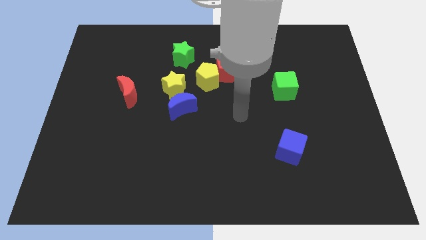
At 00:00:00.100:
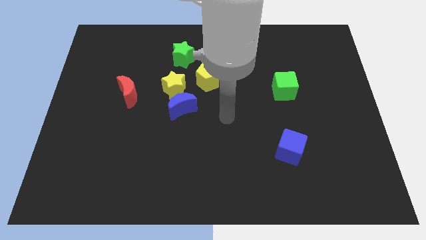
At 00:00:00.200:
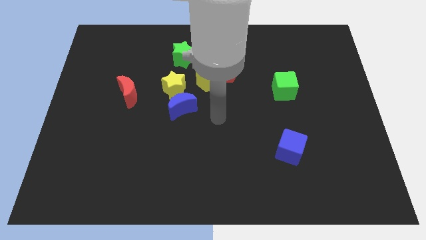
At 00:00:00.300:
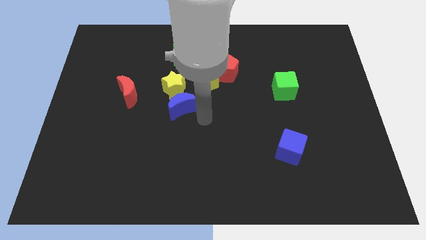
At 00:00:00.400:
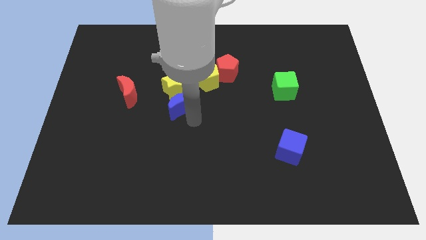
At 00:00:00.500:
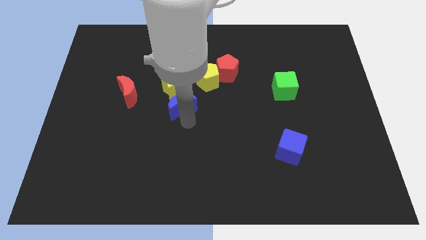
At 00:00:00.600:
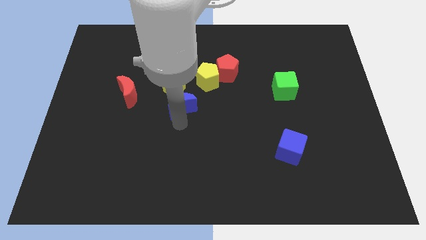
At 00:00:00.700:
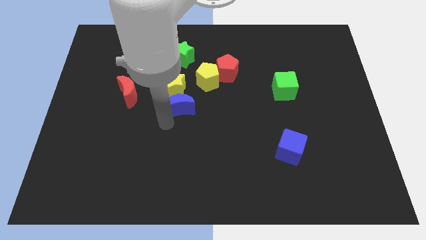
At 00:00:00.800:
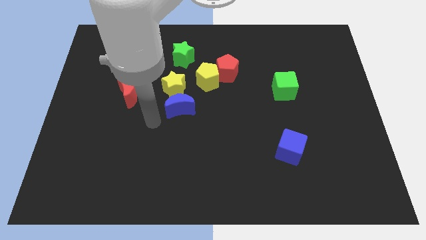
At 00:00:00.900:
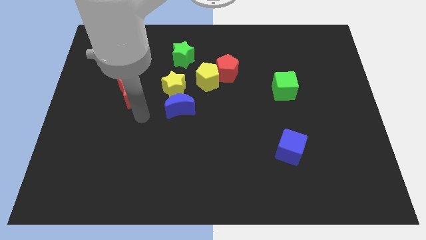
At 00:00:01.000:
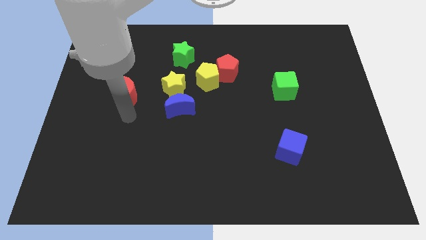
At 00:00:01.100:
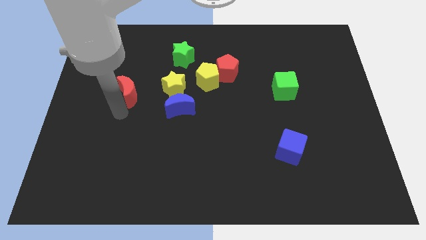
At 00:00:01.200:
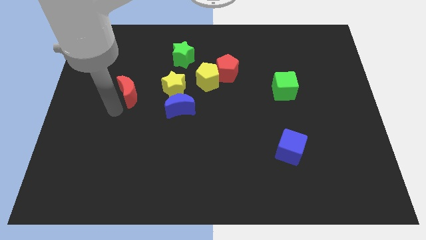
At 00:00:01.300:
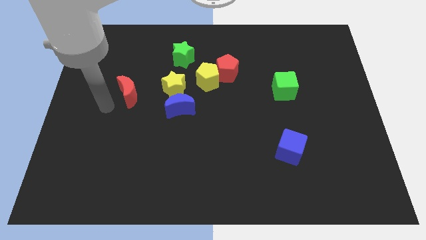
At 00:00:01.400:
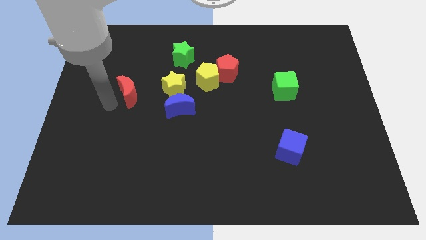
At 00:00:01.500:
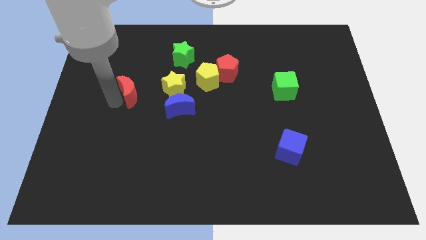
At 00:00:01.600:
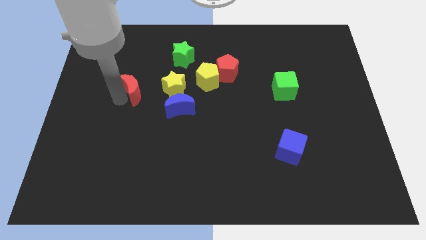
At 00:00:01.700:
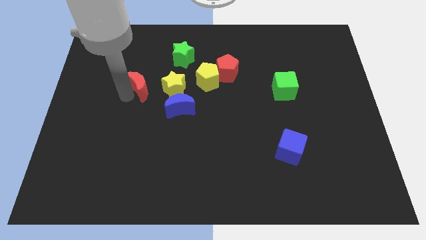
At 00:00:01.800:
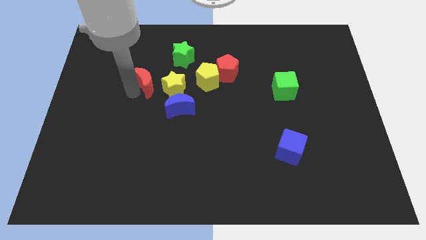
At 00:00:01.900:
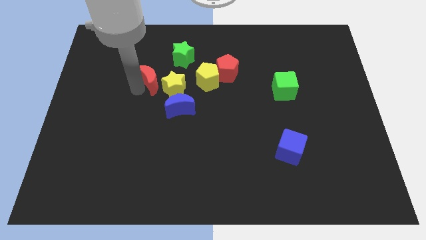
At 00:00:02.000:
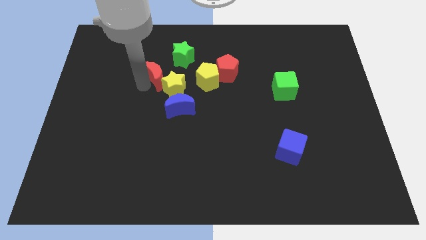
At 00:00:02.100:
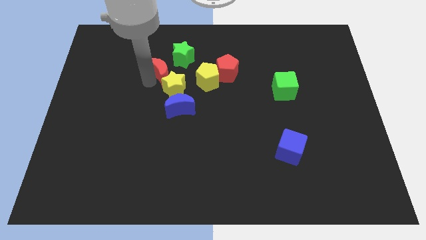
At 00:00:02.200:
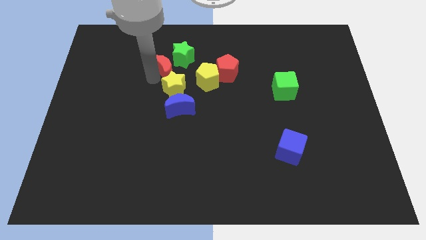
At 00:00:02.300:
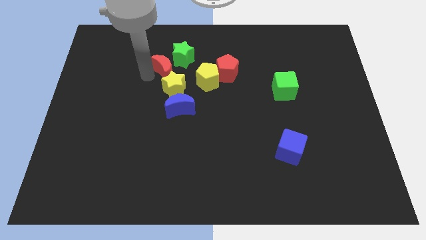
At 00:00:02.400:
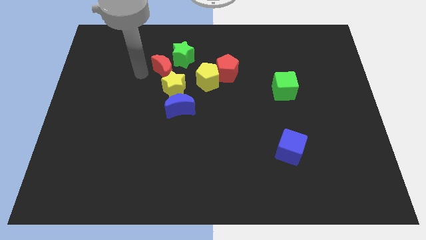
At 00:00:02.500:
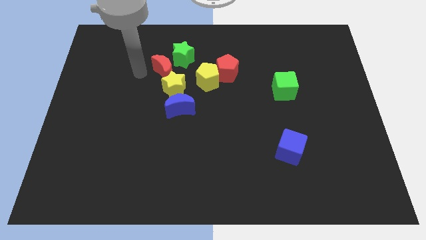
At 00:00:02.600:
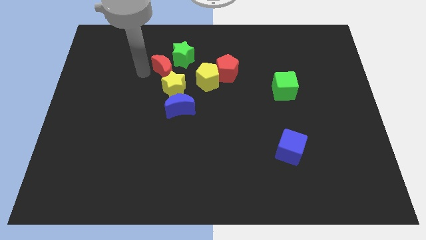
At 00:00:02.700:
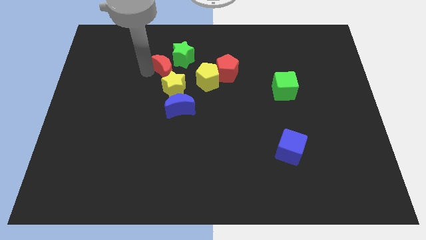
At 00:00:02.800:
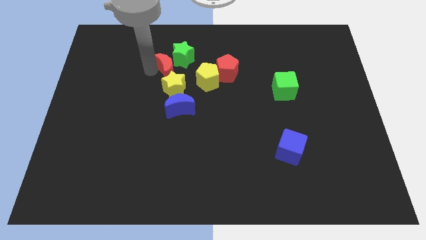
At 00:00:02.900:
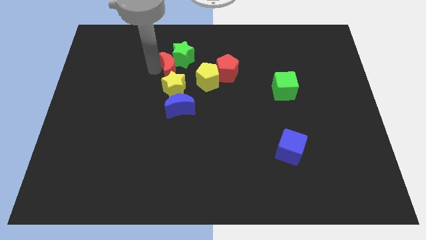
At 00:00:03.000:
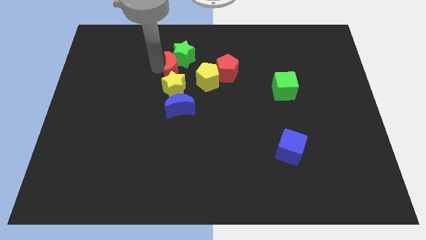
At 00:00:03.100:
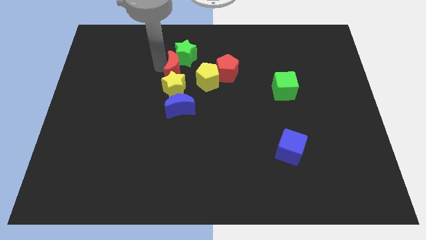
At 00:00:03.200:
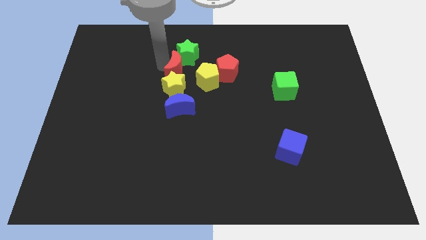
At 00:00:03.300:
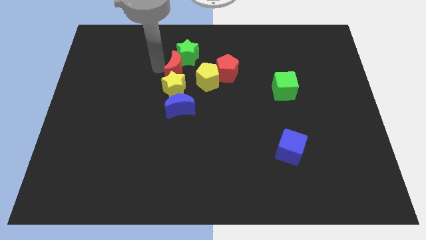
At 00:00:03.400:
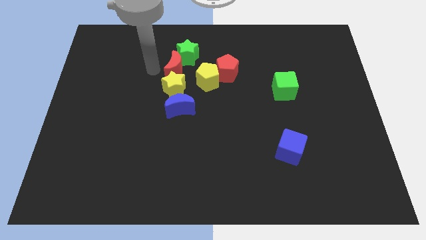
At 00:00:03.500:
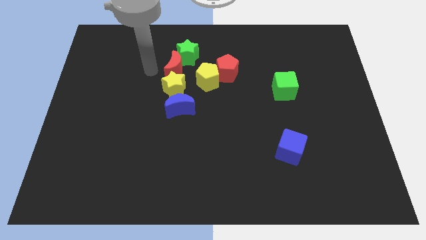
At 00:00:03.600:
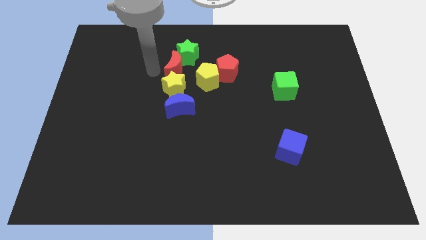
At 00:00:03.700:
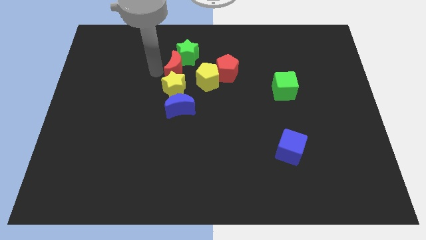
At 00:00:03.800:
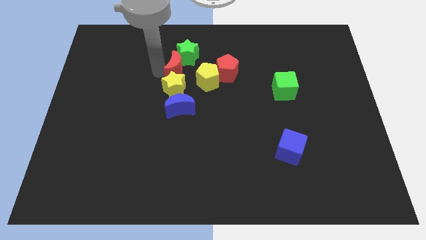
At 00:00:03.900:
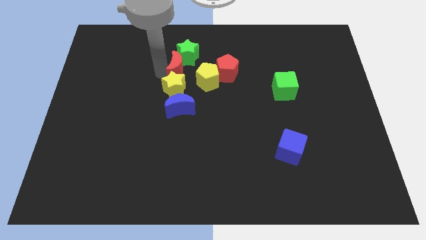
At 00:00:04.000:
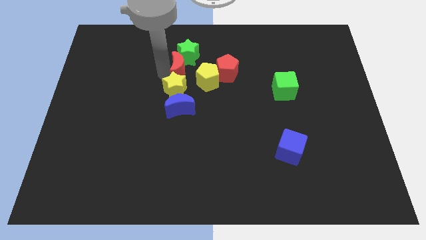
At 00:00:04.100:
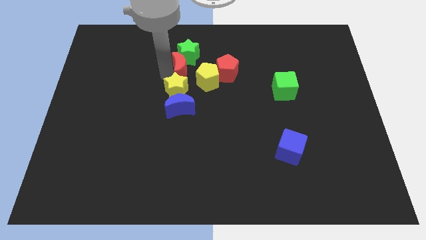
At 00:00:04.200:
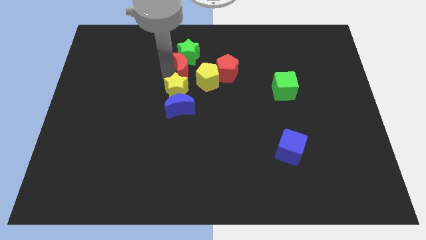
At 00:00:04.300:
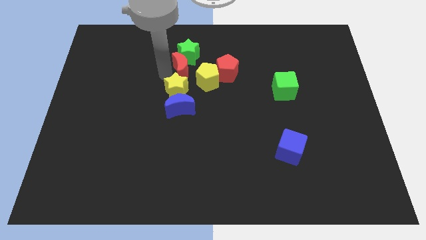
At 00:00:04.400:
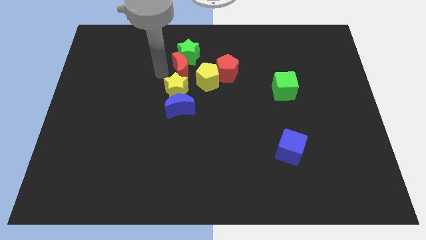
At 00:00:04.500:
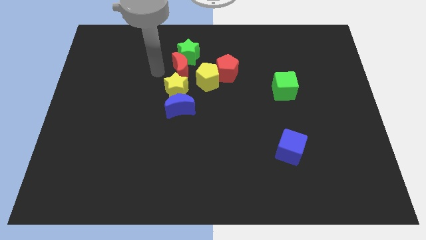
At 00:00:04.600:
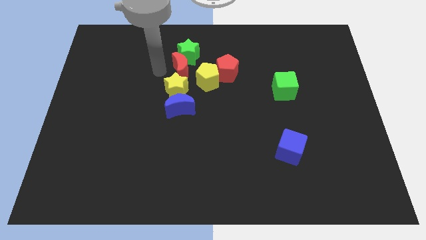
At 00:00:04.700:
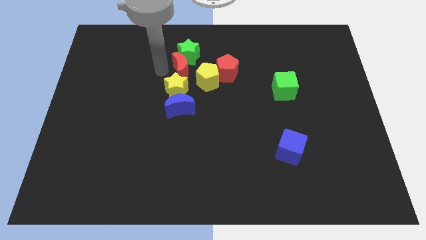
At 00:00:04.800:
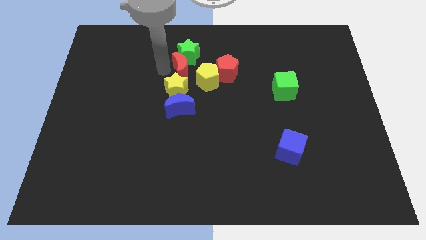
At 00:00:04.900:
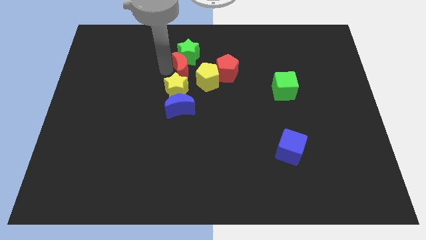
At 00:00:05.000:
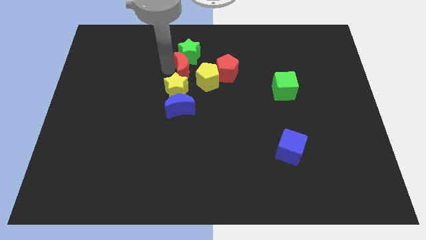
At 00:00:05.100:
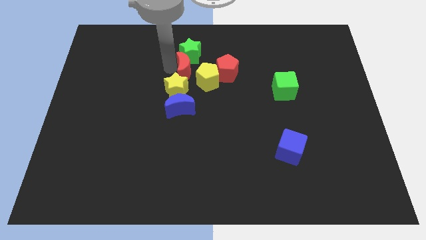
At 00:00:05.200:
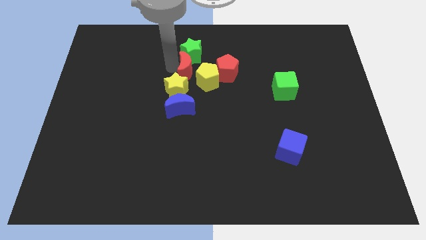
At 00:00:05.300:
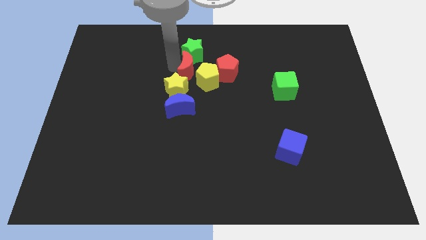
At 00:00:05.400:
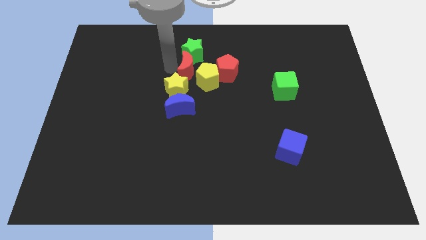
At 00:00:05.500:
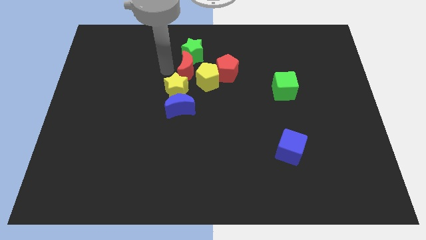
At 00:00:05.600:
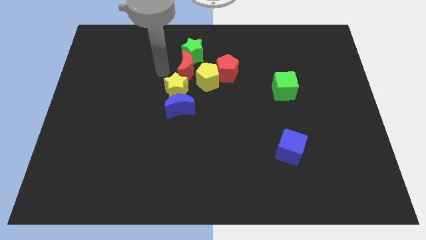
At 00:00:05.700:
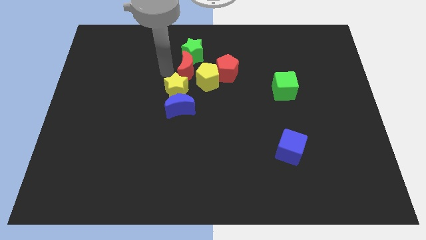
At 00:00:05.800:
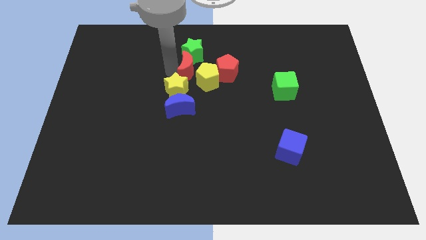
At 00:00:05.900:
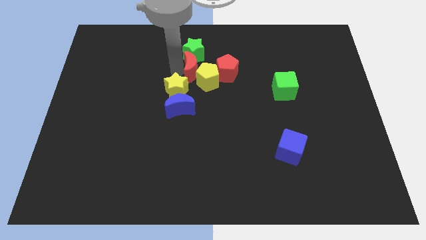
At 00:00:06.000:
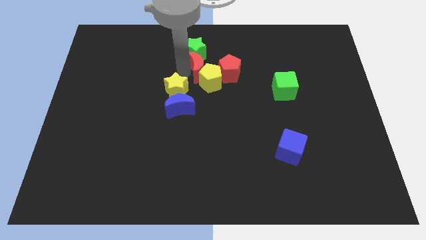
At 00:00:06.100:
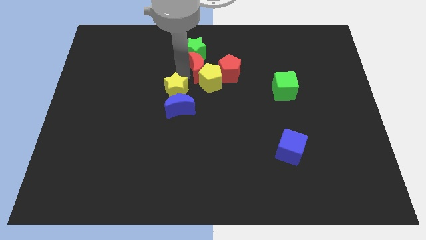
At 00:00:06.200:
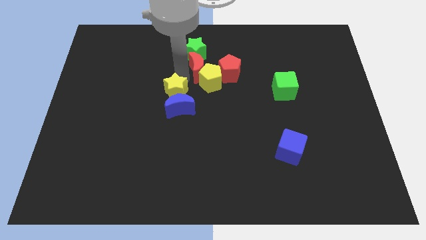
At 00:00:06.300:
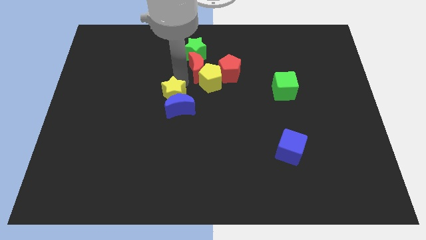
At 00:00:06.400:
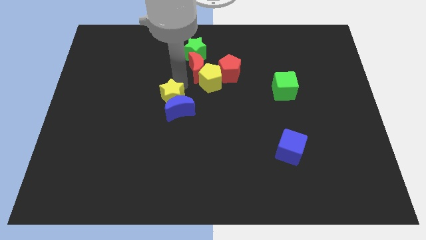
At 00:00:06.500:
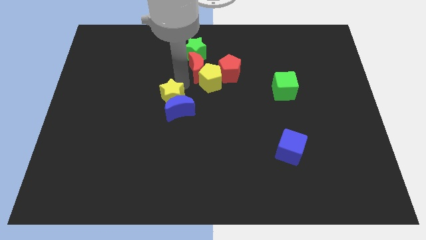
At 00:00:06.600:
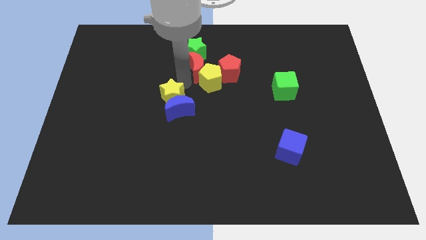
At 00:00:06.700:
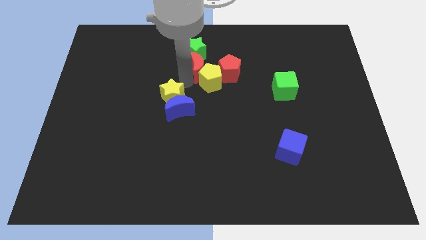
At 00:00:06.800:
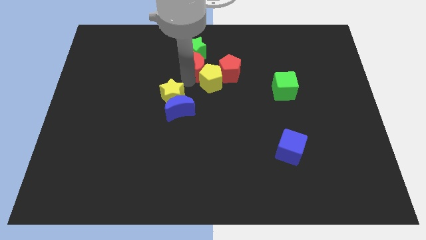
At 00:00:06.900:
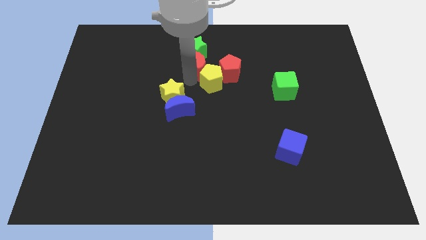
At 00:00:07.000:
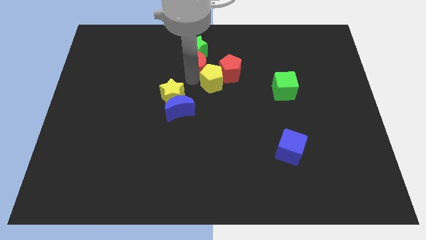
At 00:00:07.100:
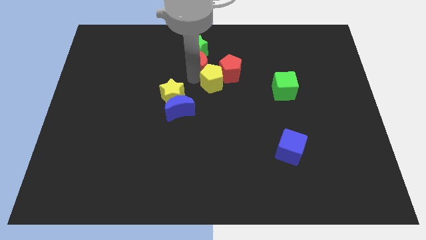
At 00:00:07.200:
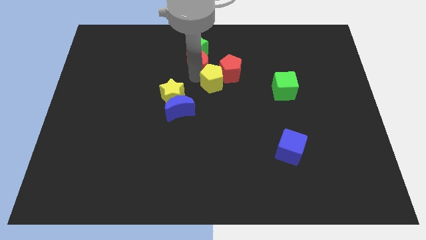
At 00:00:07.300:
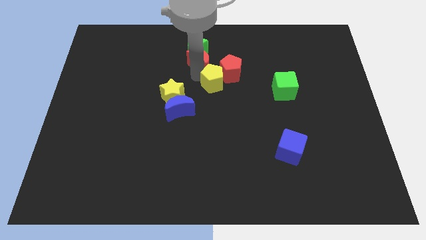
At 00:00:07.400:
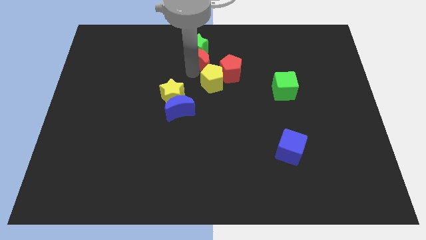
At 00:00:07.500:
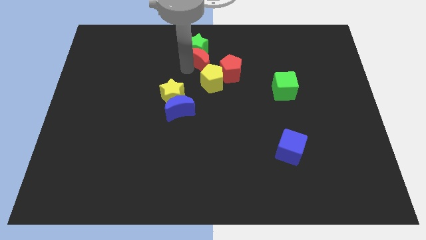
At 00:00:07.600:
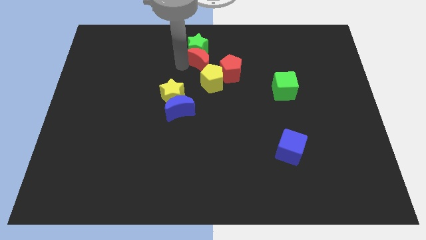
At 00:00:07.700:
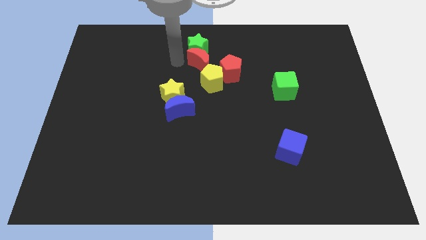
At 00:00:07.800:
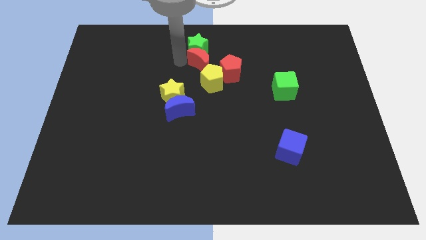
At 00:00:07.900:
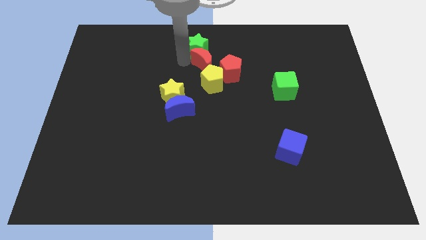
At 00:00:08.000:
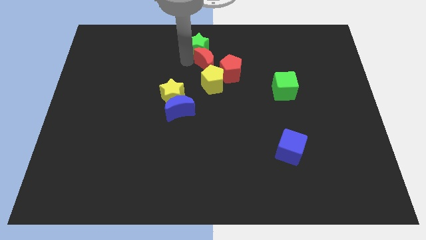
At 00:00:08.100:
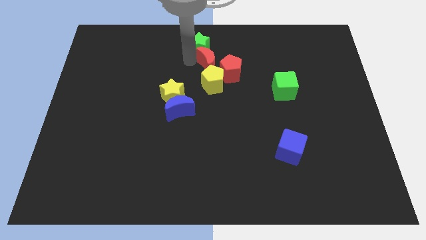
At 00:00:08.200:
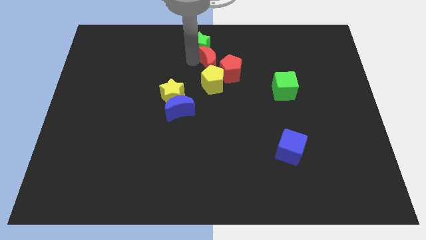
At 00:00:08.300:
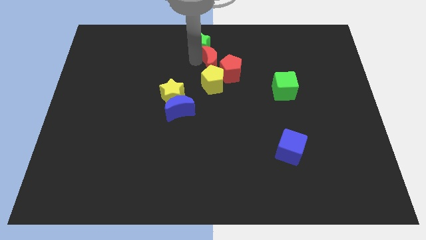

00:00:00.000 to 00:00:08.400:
push the red moon to the top right of the yellow pentagon
